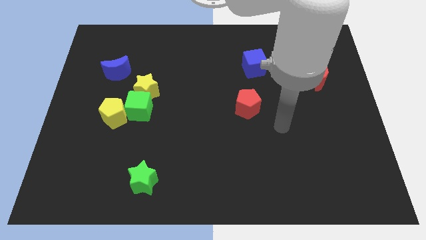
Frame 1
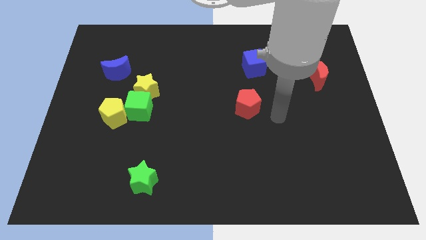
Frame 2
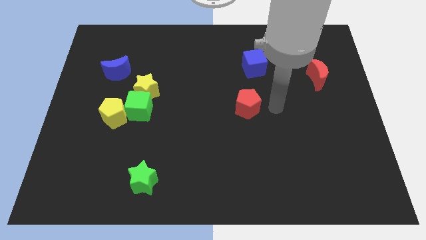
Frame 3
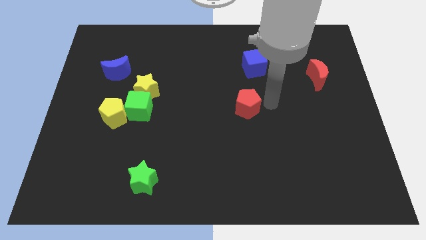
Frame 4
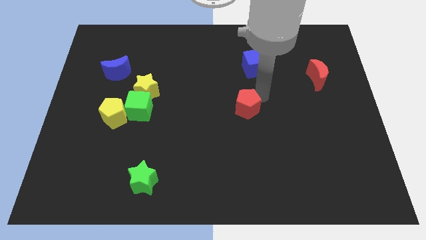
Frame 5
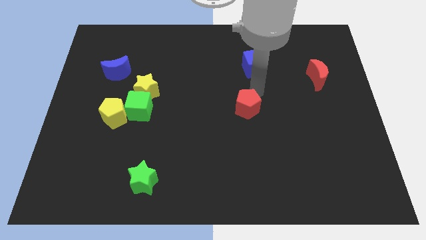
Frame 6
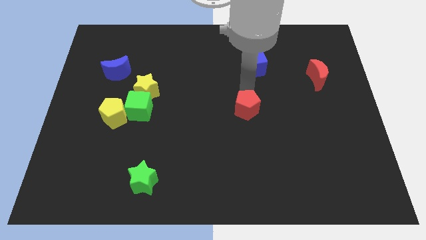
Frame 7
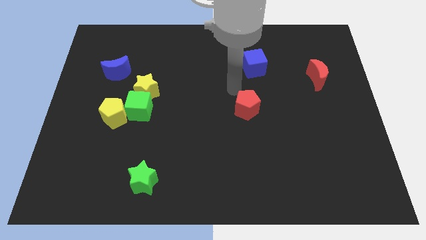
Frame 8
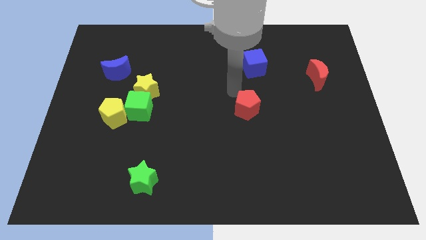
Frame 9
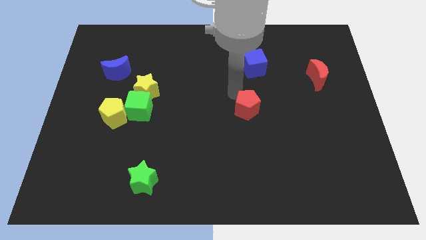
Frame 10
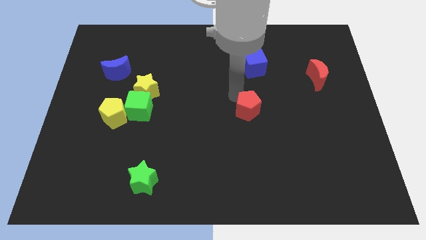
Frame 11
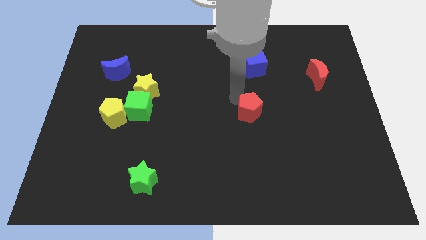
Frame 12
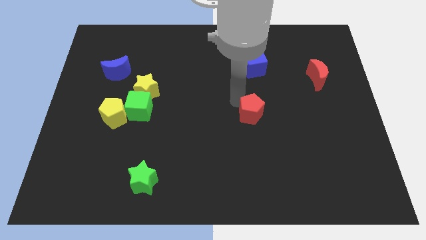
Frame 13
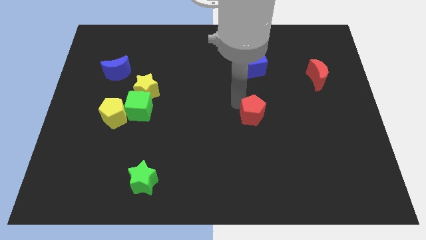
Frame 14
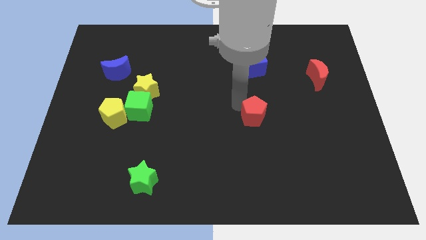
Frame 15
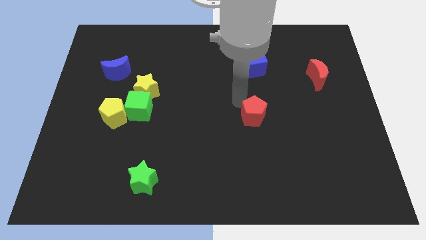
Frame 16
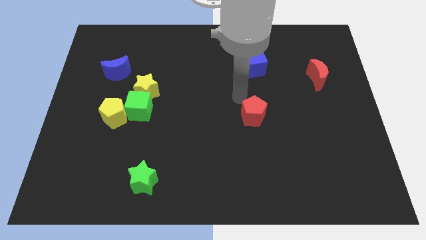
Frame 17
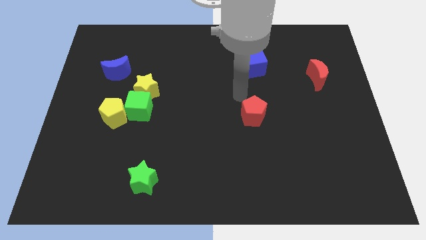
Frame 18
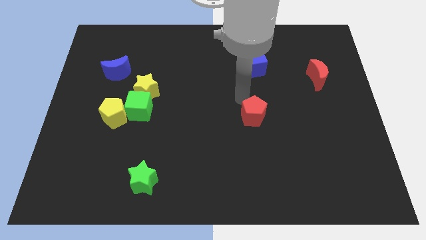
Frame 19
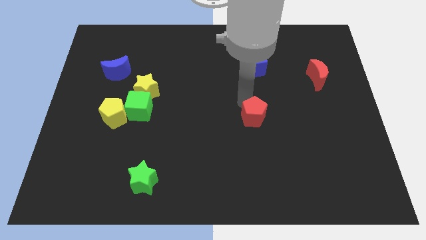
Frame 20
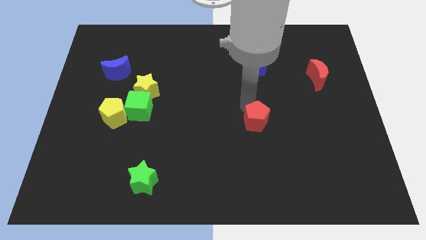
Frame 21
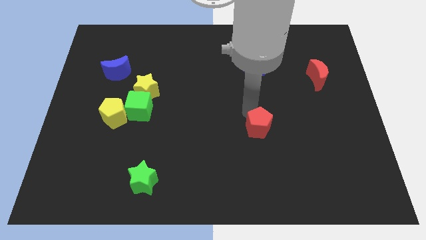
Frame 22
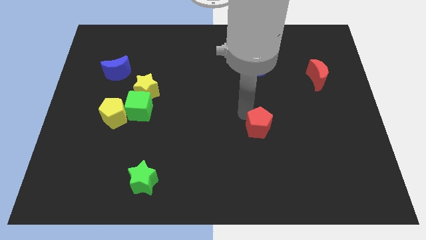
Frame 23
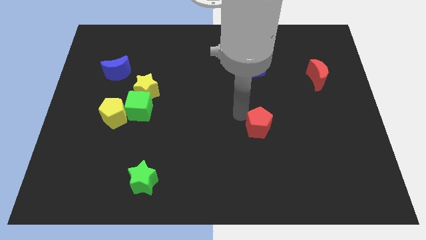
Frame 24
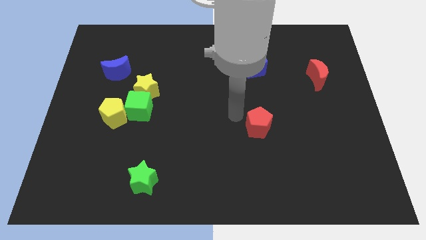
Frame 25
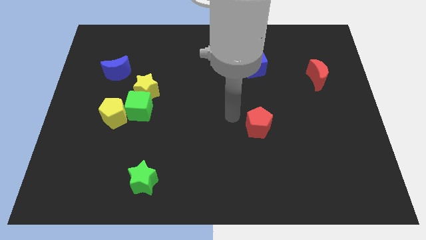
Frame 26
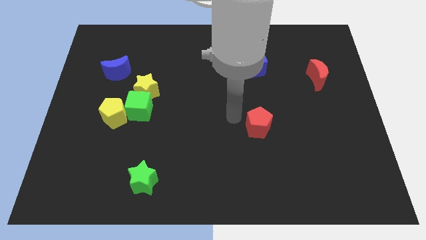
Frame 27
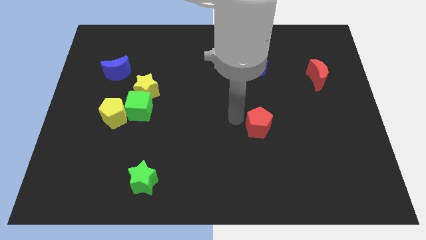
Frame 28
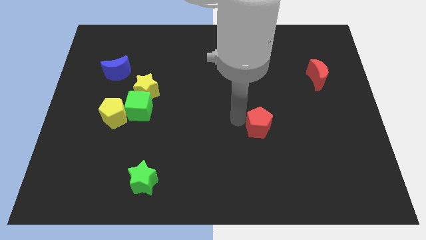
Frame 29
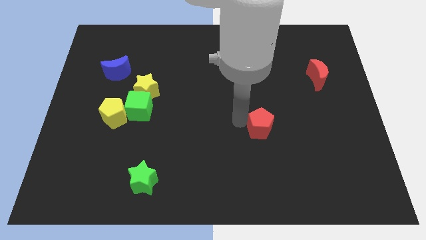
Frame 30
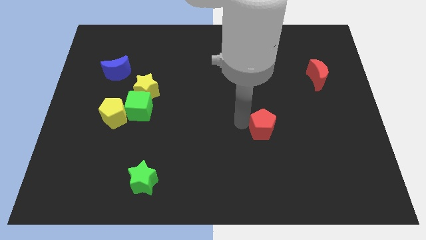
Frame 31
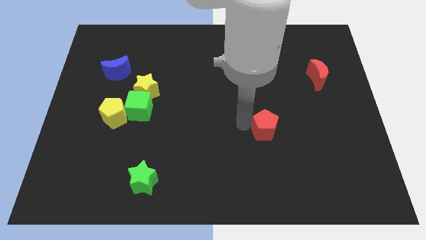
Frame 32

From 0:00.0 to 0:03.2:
slightly slide the red pentagon downwards and then to the right

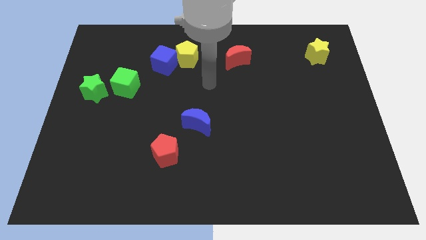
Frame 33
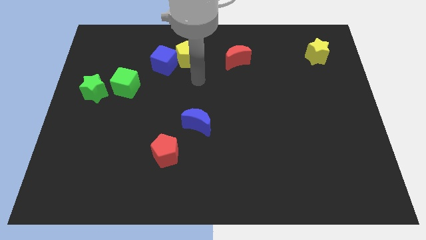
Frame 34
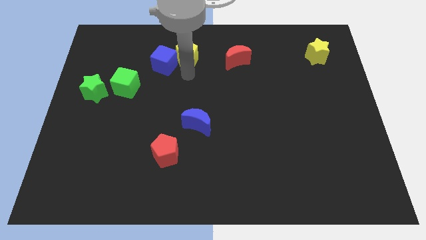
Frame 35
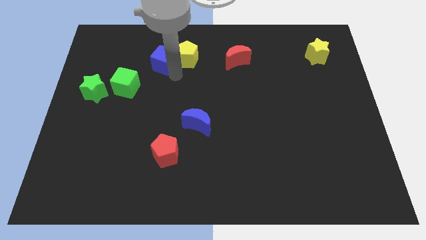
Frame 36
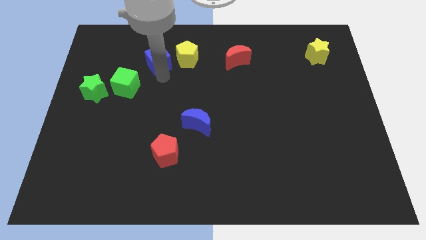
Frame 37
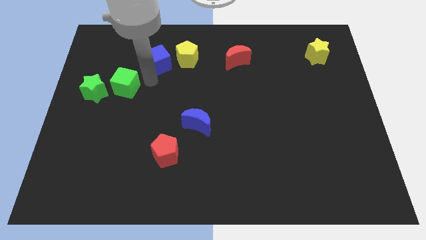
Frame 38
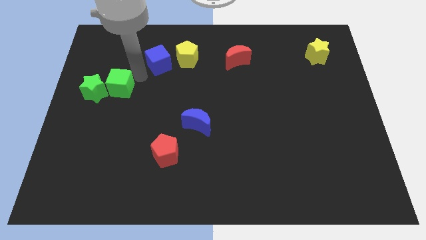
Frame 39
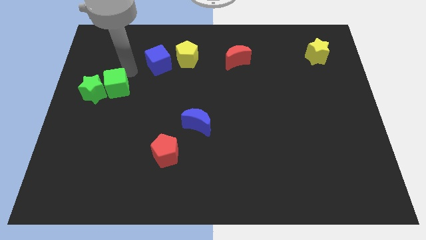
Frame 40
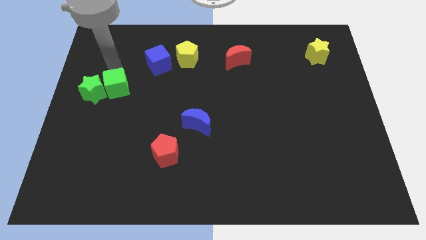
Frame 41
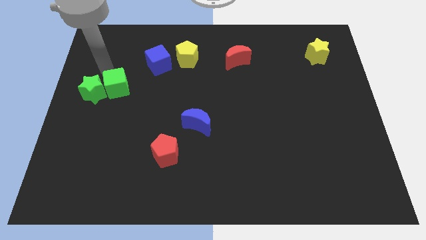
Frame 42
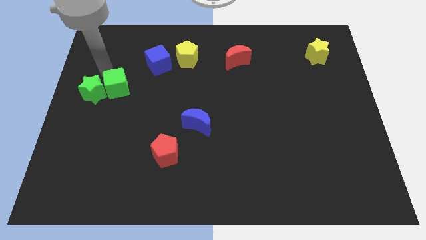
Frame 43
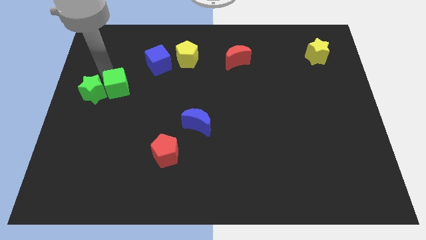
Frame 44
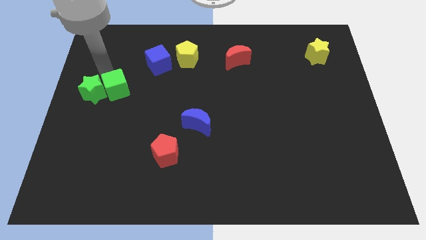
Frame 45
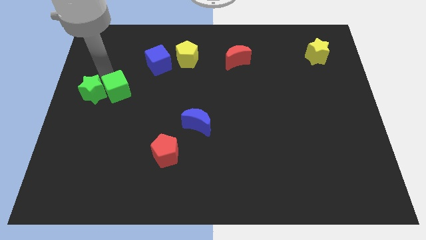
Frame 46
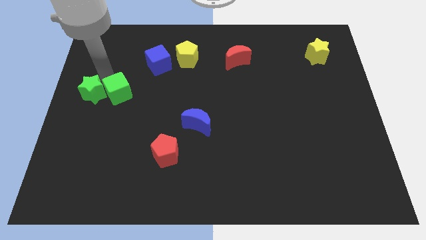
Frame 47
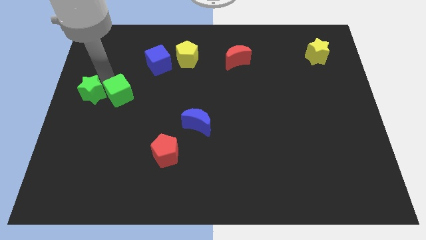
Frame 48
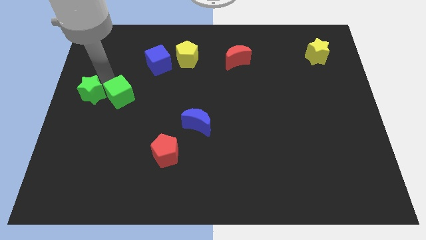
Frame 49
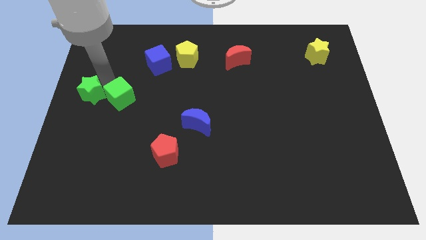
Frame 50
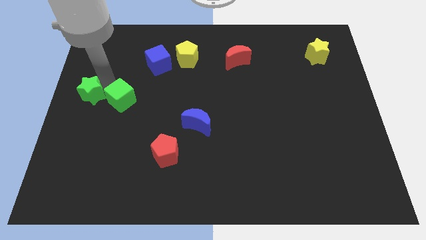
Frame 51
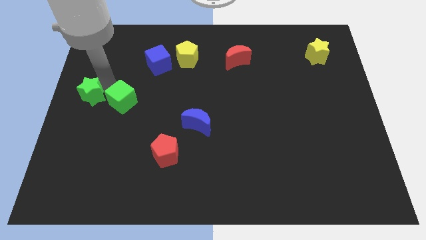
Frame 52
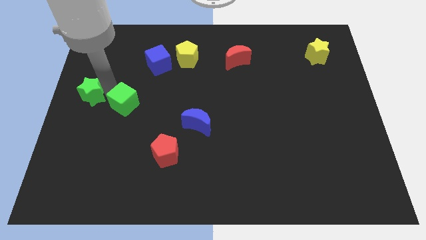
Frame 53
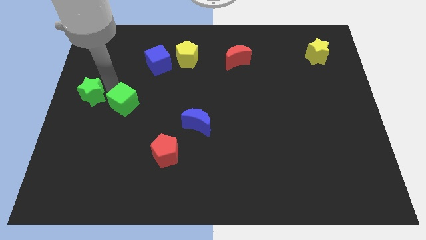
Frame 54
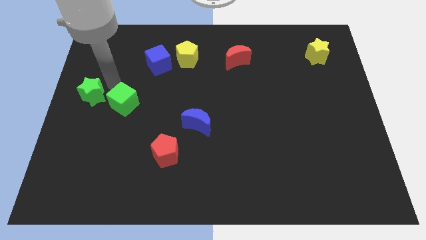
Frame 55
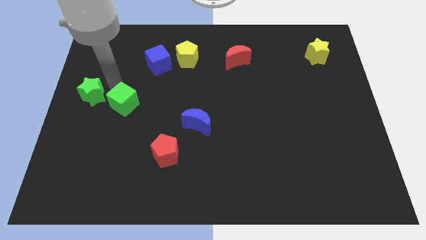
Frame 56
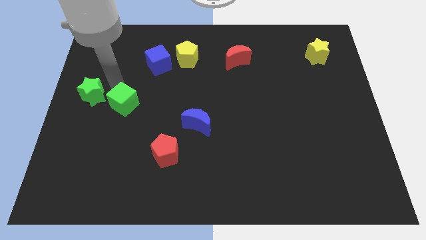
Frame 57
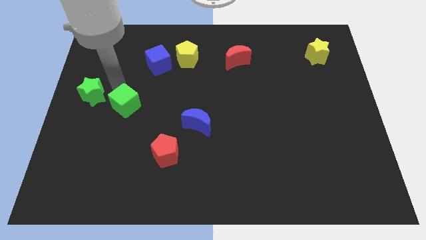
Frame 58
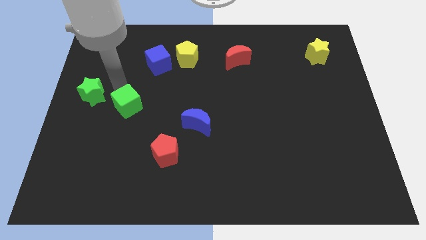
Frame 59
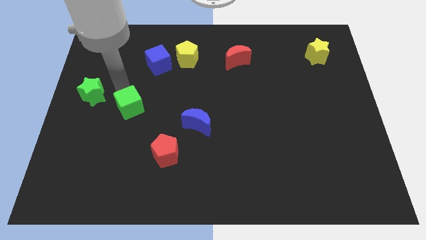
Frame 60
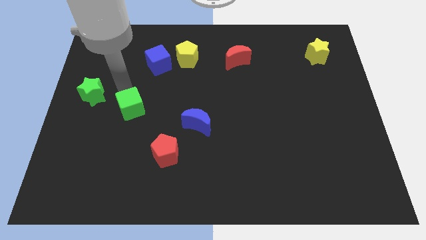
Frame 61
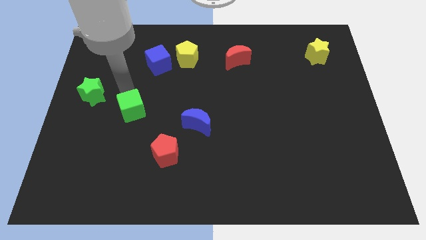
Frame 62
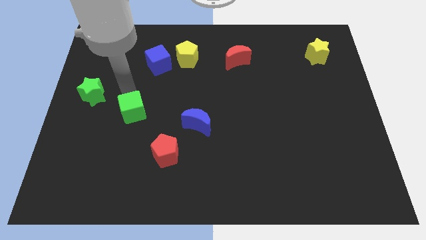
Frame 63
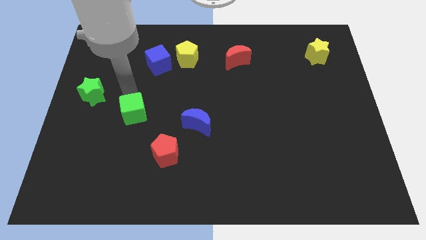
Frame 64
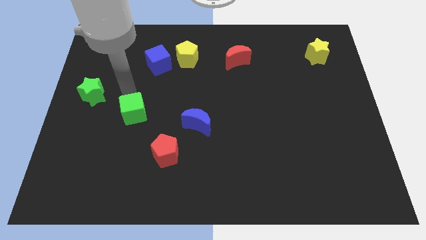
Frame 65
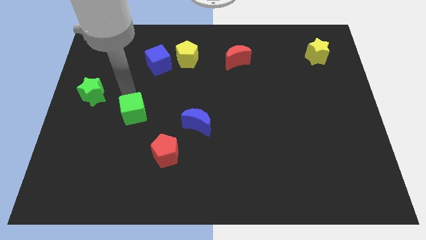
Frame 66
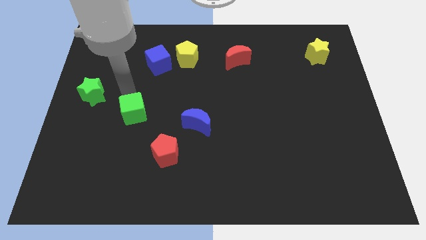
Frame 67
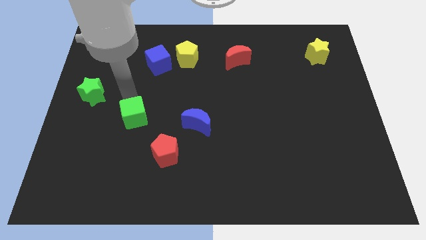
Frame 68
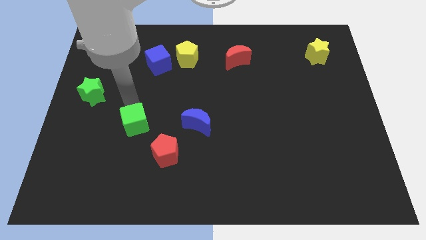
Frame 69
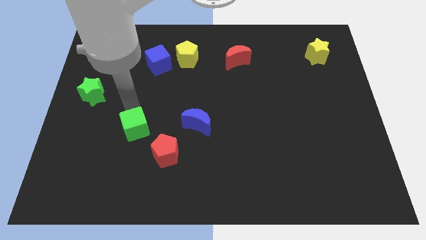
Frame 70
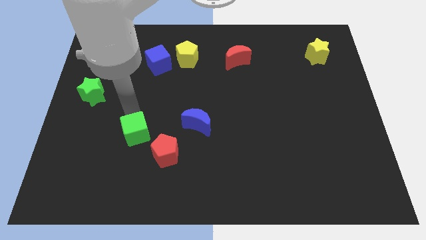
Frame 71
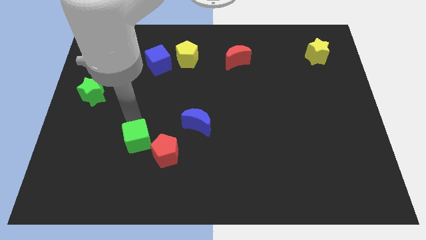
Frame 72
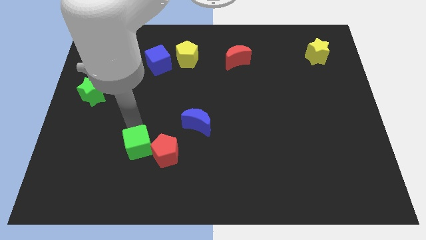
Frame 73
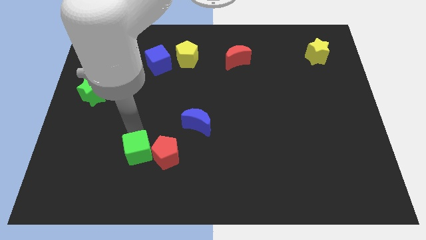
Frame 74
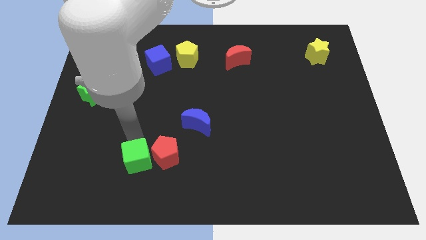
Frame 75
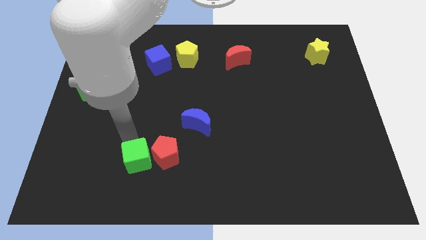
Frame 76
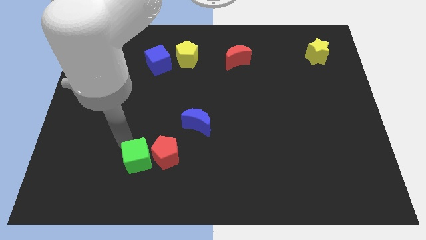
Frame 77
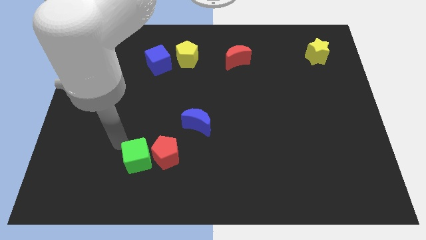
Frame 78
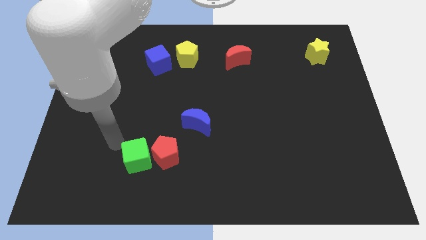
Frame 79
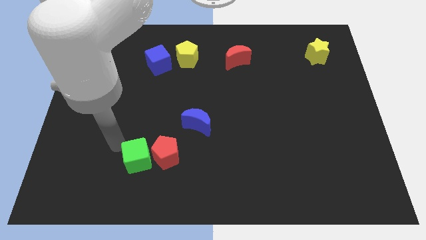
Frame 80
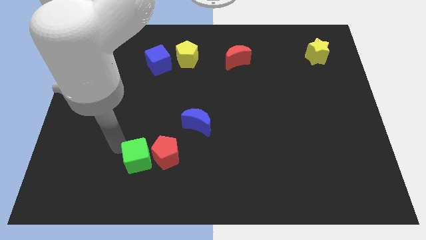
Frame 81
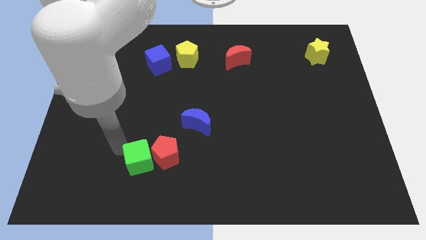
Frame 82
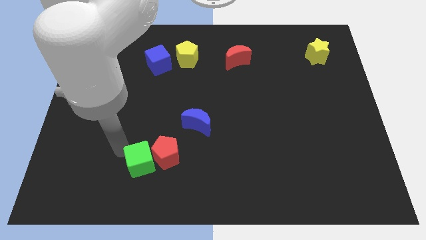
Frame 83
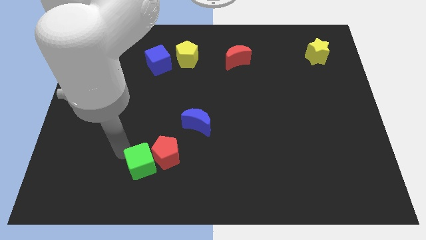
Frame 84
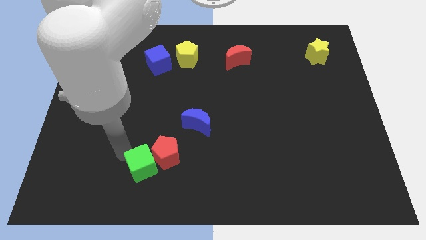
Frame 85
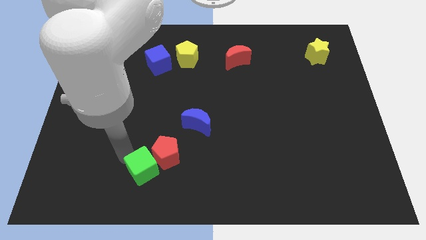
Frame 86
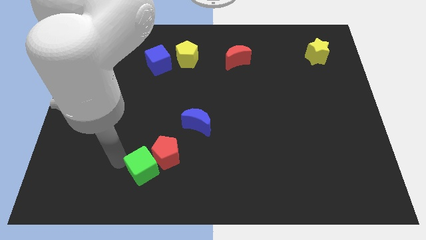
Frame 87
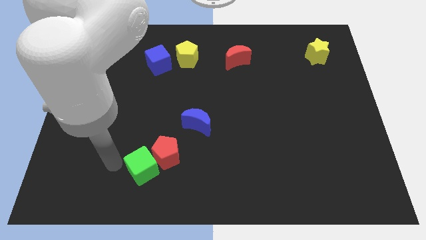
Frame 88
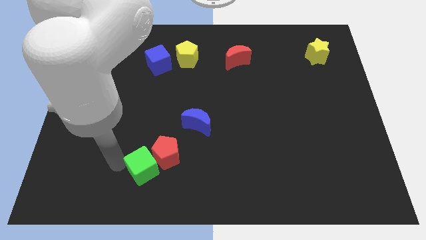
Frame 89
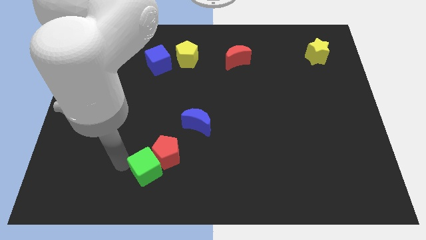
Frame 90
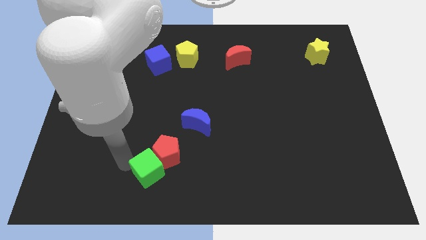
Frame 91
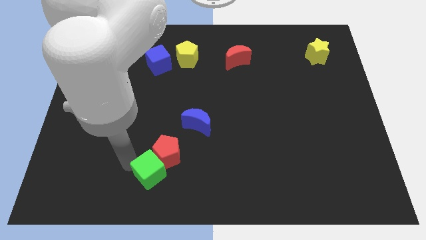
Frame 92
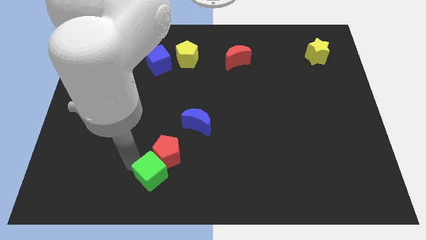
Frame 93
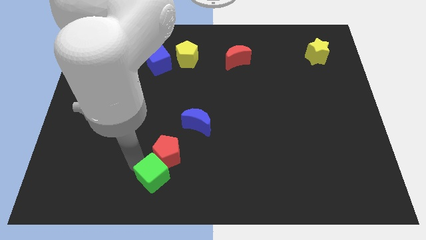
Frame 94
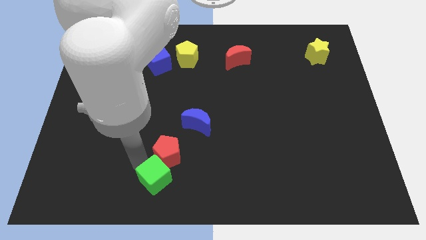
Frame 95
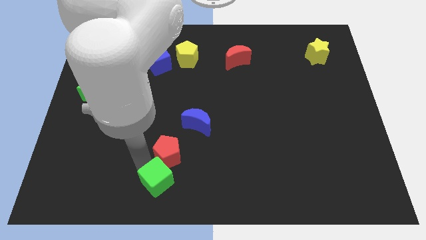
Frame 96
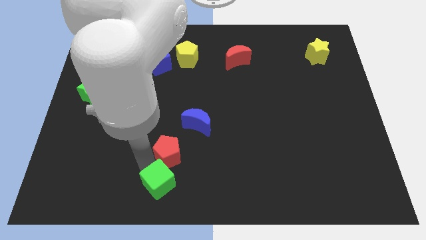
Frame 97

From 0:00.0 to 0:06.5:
push the green cube downwards and then right
